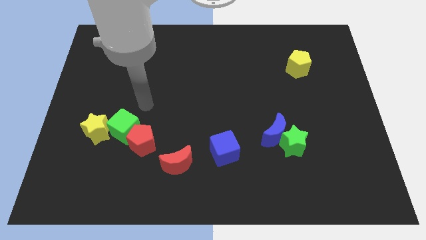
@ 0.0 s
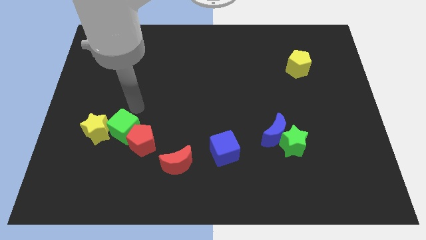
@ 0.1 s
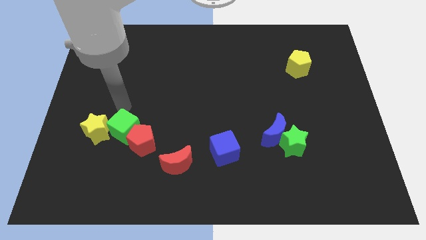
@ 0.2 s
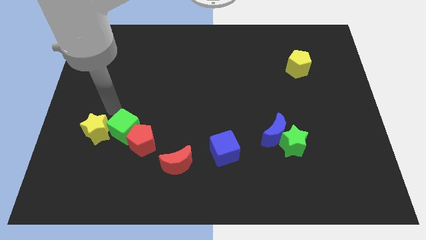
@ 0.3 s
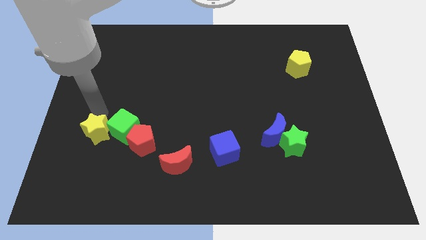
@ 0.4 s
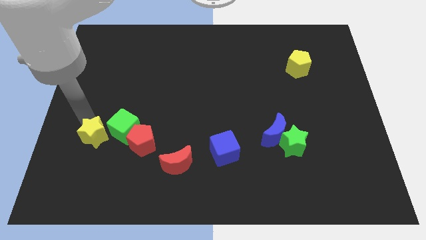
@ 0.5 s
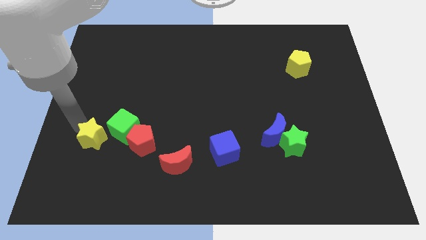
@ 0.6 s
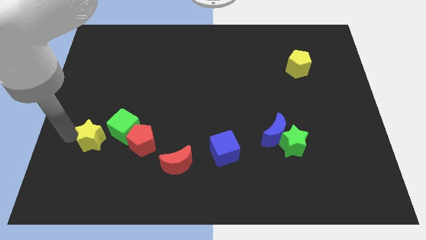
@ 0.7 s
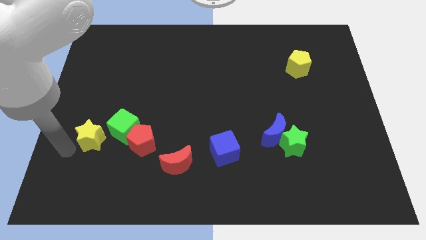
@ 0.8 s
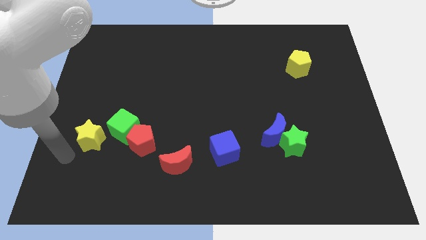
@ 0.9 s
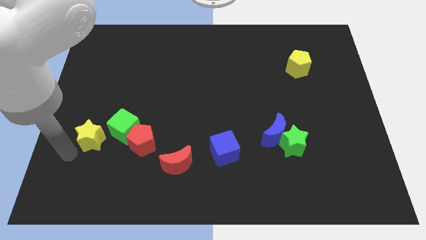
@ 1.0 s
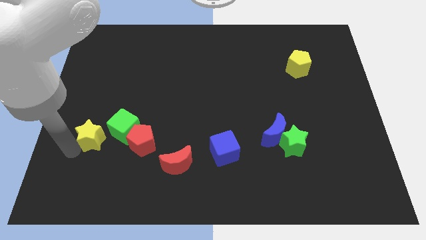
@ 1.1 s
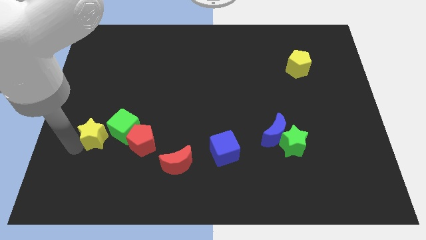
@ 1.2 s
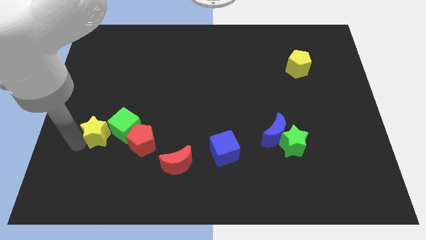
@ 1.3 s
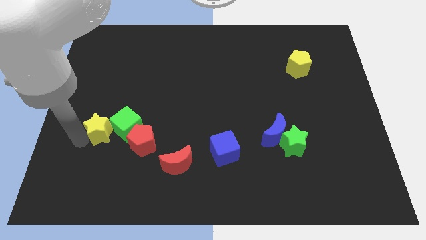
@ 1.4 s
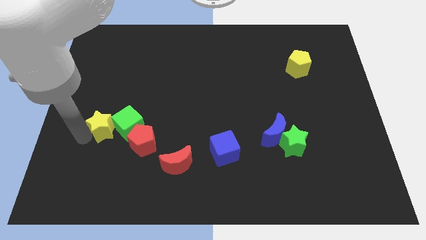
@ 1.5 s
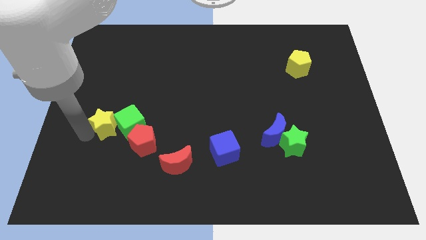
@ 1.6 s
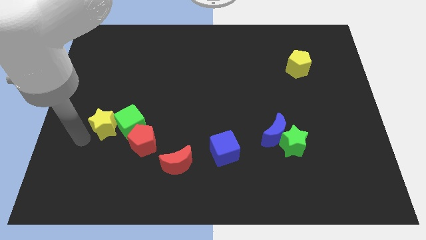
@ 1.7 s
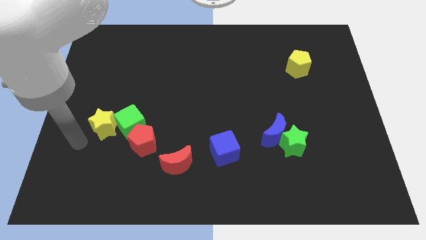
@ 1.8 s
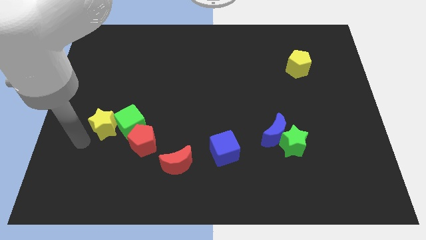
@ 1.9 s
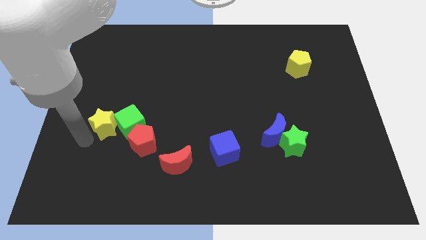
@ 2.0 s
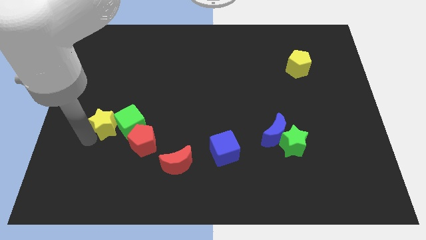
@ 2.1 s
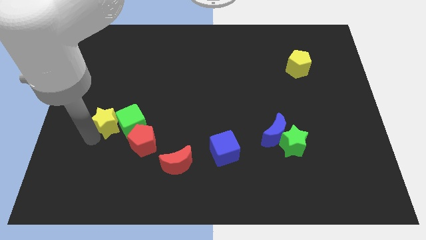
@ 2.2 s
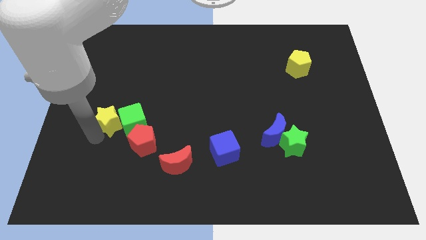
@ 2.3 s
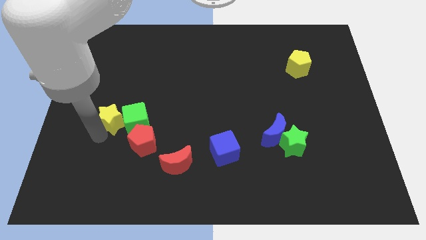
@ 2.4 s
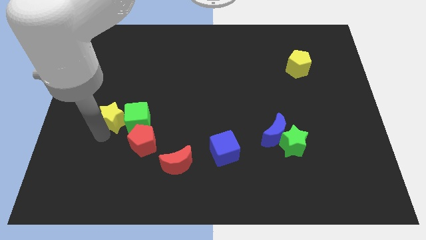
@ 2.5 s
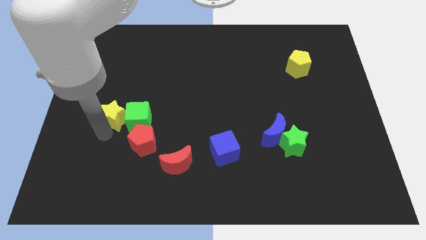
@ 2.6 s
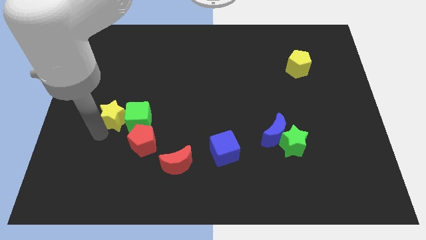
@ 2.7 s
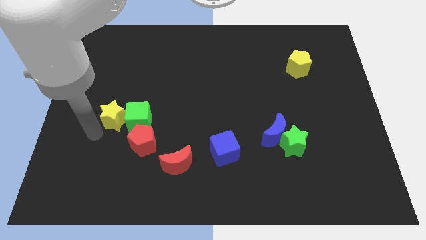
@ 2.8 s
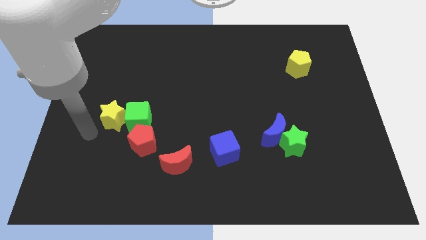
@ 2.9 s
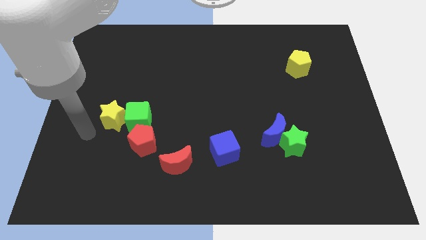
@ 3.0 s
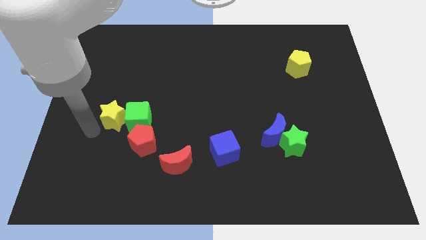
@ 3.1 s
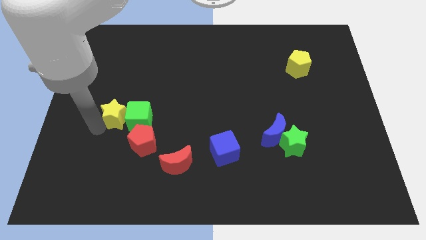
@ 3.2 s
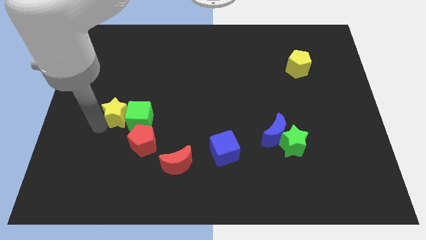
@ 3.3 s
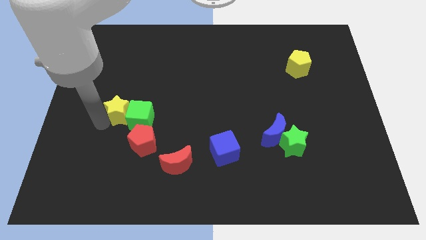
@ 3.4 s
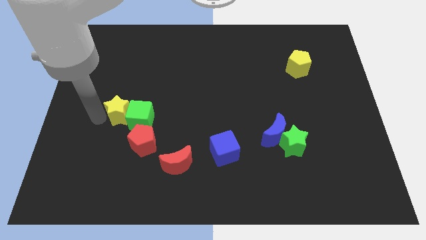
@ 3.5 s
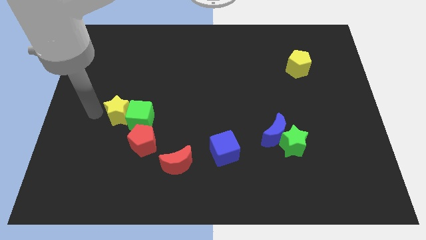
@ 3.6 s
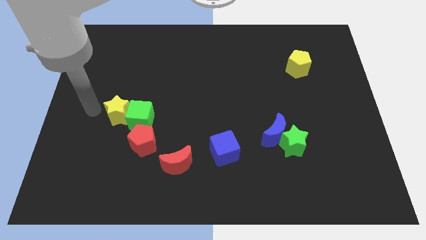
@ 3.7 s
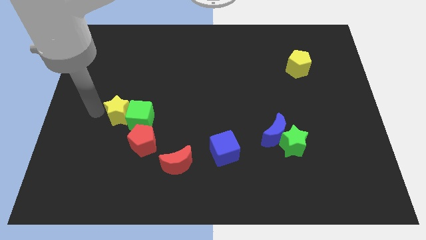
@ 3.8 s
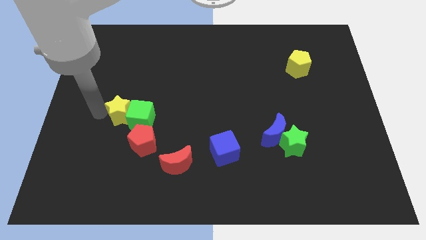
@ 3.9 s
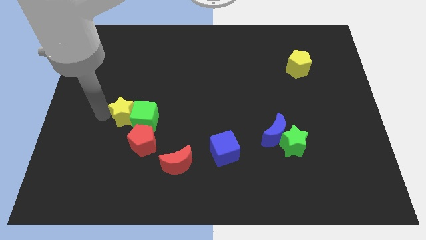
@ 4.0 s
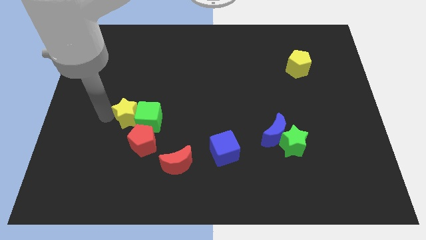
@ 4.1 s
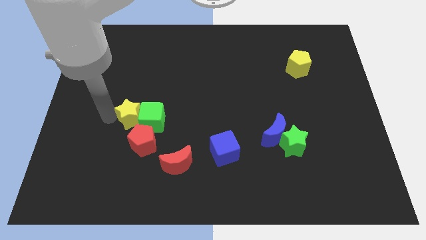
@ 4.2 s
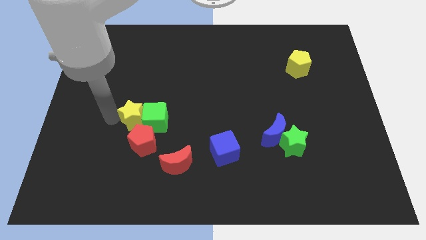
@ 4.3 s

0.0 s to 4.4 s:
slide the yellow star a bit to the right

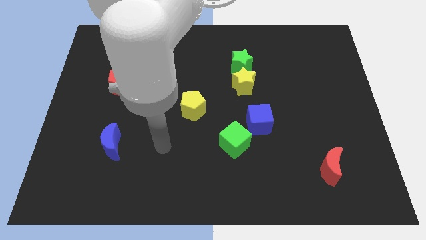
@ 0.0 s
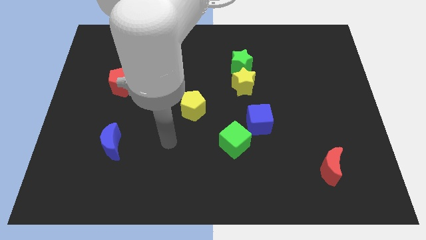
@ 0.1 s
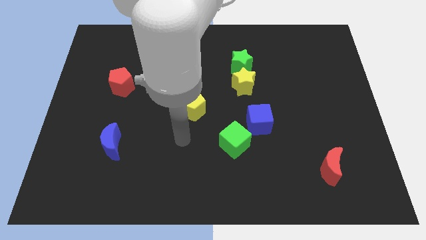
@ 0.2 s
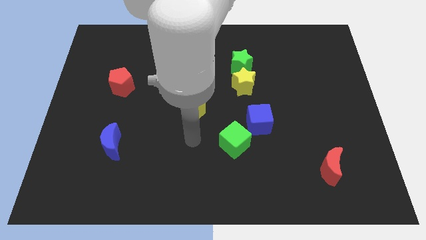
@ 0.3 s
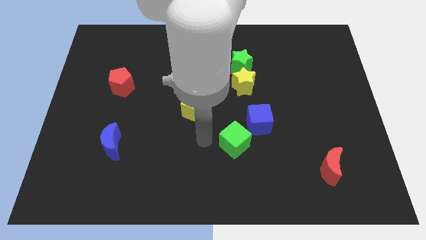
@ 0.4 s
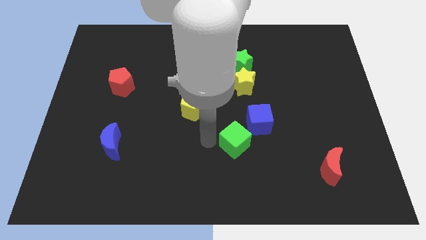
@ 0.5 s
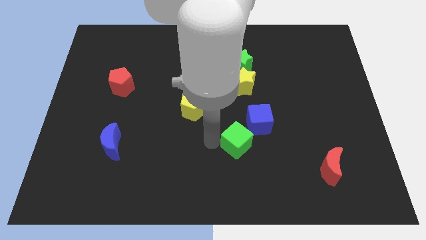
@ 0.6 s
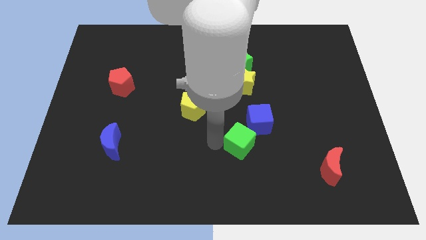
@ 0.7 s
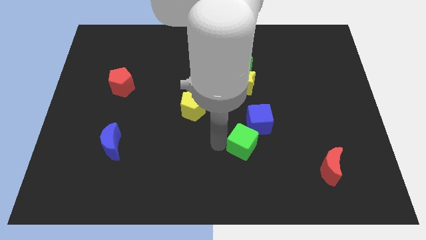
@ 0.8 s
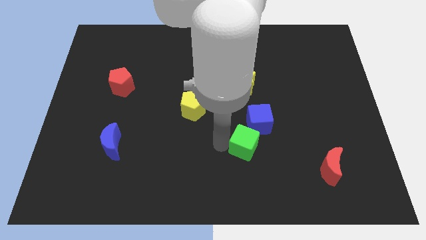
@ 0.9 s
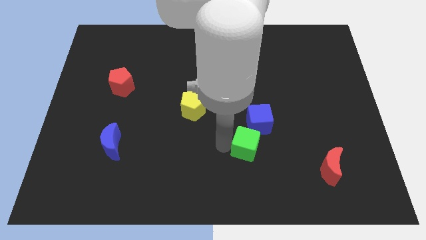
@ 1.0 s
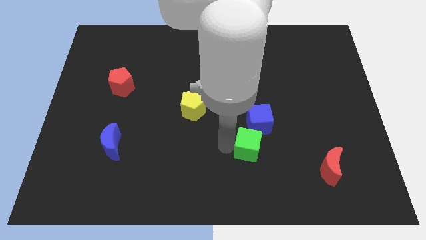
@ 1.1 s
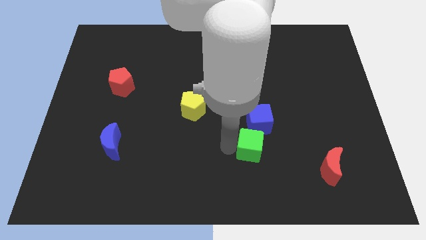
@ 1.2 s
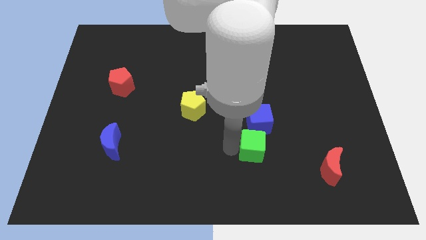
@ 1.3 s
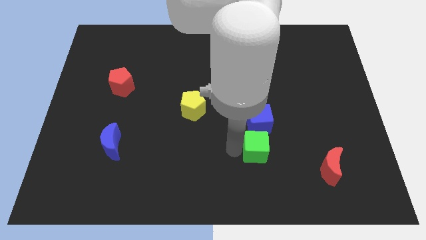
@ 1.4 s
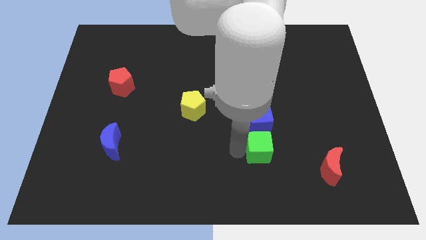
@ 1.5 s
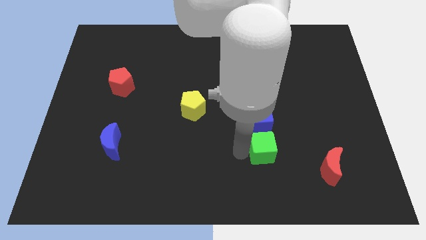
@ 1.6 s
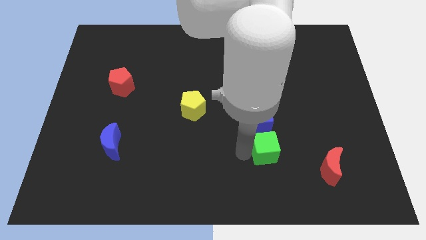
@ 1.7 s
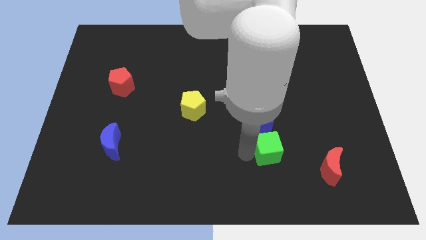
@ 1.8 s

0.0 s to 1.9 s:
slightly push the green cube to the right

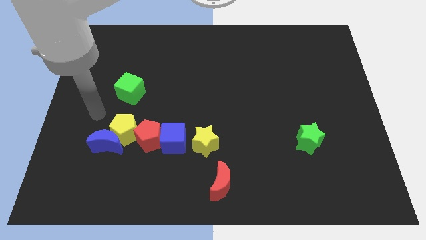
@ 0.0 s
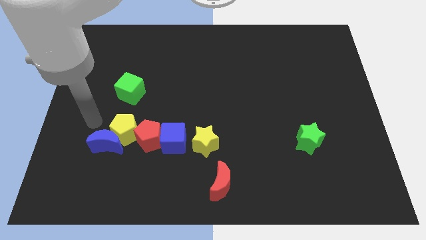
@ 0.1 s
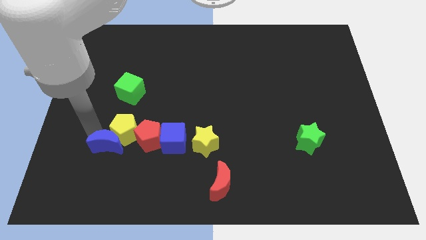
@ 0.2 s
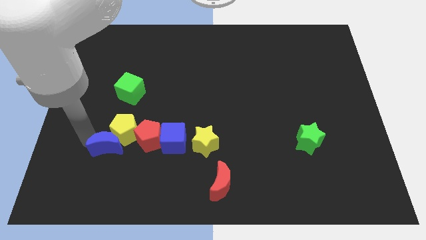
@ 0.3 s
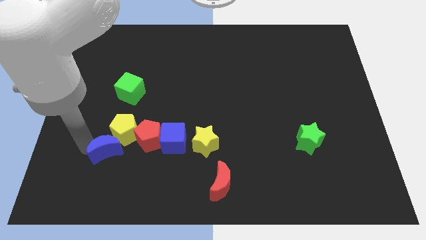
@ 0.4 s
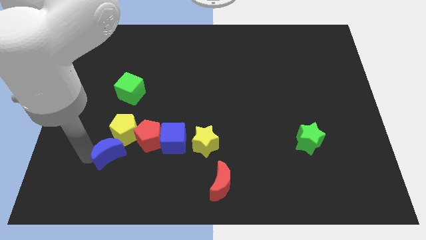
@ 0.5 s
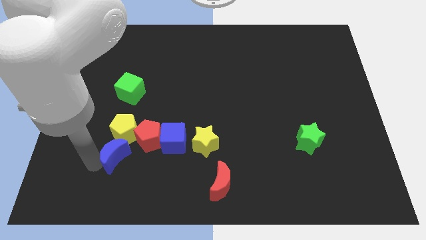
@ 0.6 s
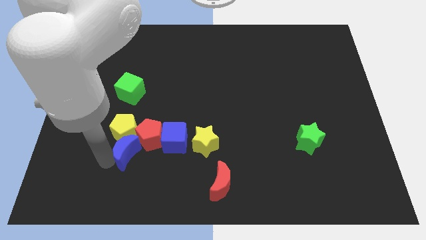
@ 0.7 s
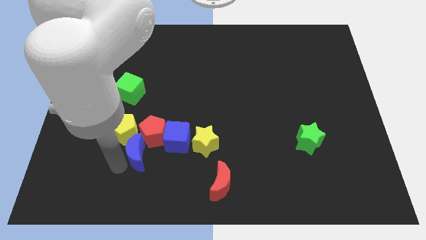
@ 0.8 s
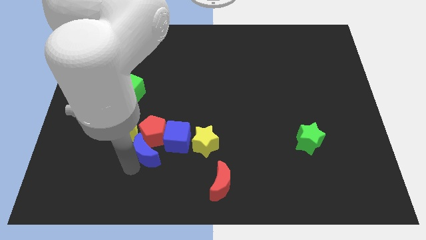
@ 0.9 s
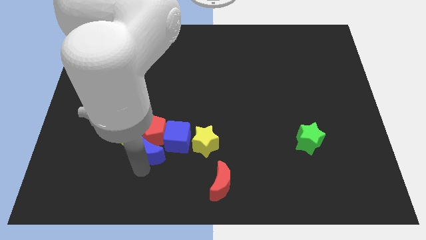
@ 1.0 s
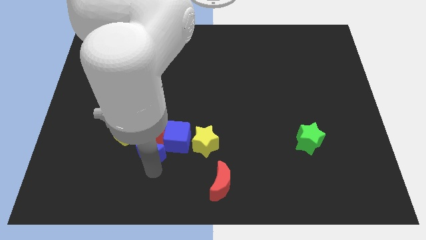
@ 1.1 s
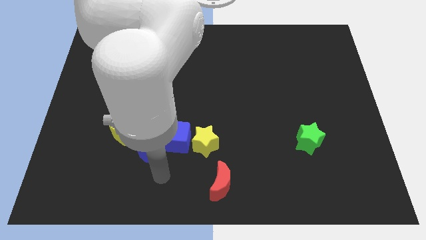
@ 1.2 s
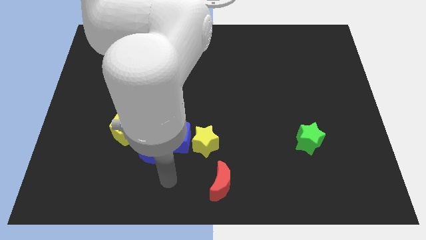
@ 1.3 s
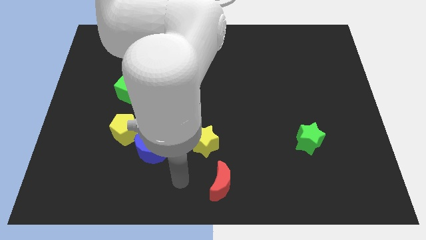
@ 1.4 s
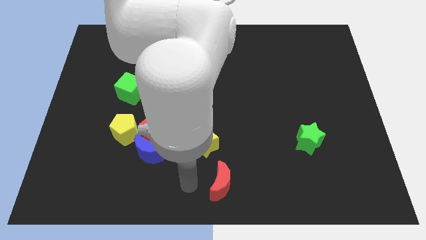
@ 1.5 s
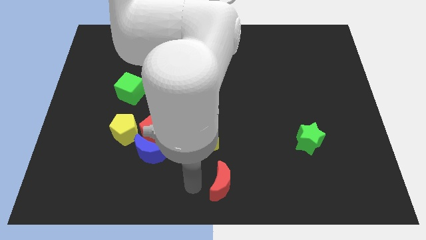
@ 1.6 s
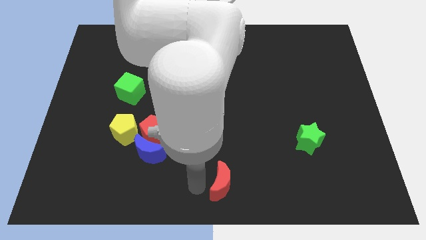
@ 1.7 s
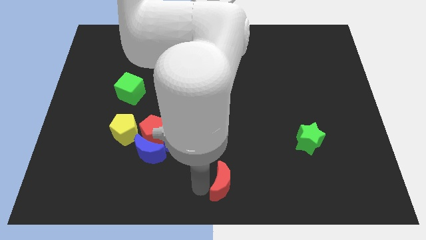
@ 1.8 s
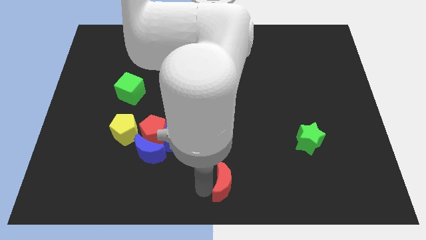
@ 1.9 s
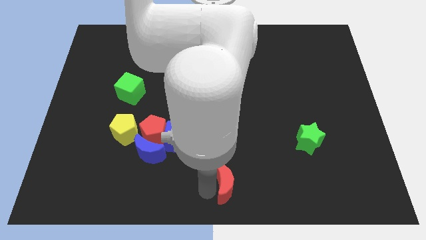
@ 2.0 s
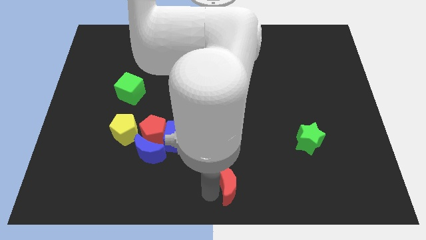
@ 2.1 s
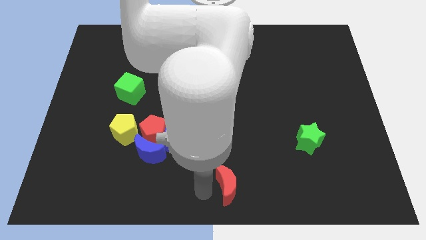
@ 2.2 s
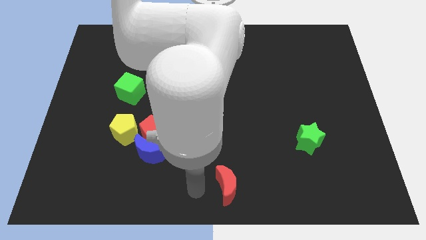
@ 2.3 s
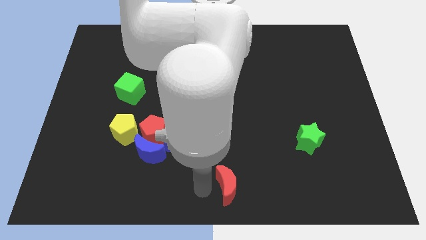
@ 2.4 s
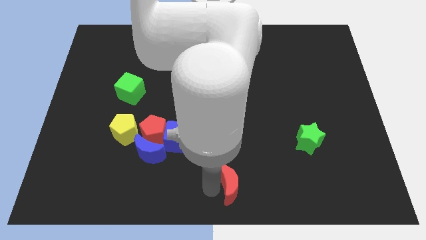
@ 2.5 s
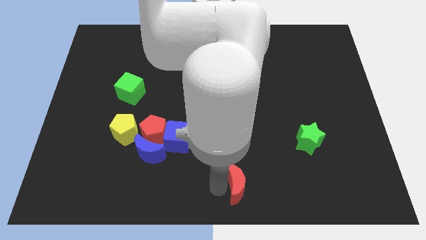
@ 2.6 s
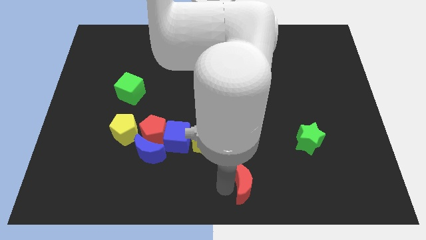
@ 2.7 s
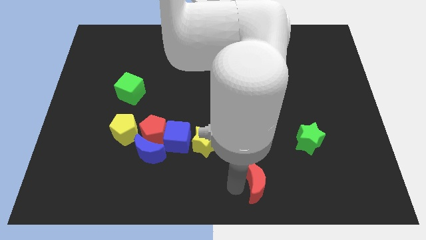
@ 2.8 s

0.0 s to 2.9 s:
slide the red moon slightly to the right
